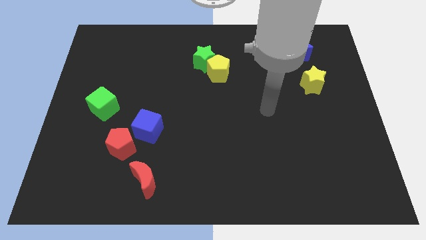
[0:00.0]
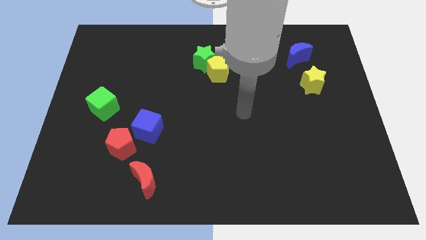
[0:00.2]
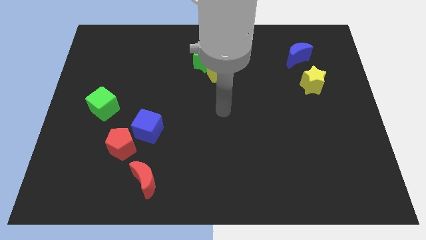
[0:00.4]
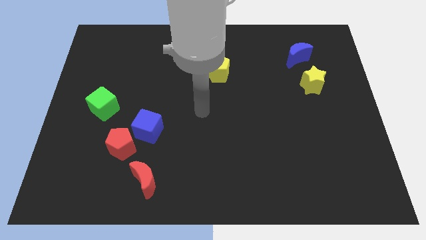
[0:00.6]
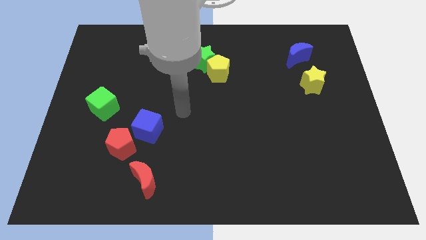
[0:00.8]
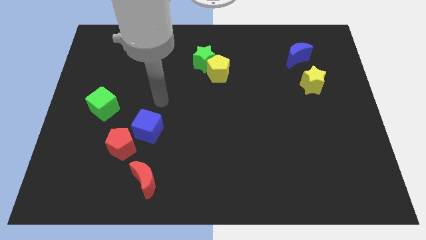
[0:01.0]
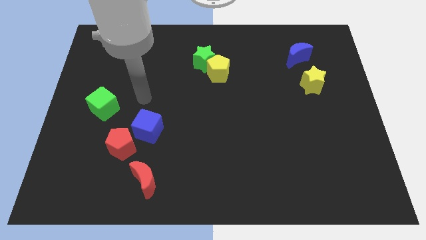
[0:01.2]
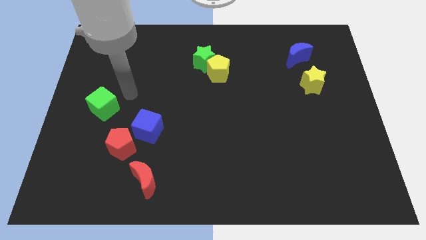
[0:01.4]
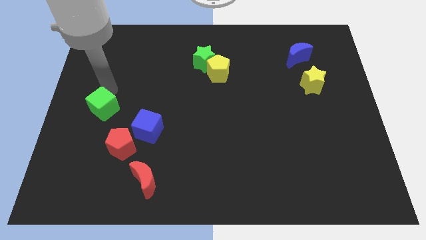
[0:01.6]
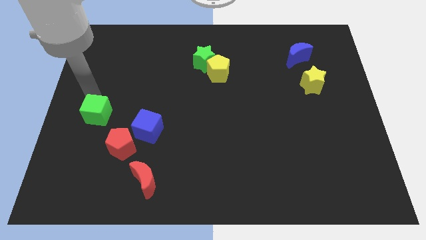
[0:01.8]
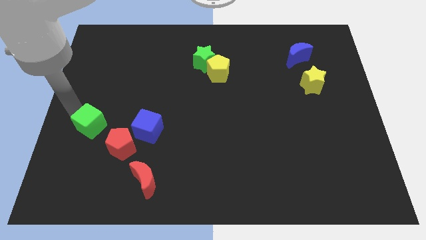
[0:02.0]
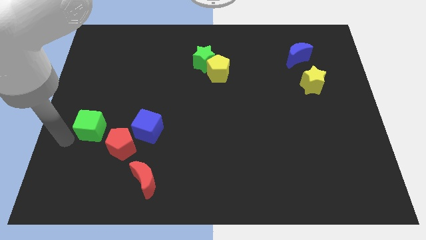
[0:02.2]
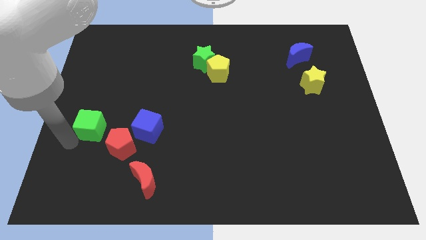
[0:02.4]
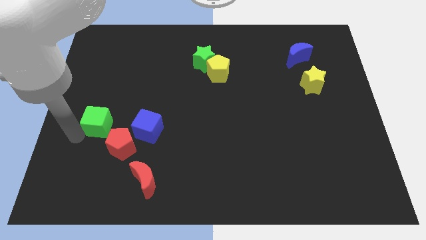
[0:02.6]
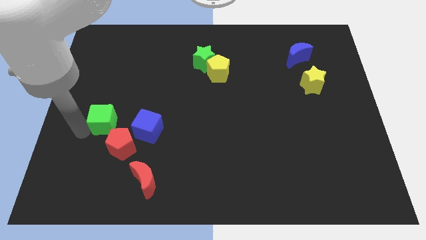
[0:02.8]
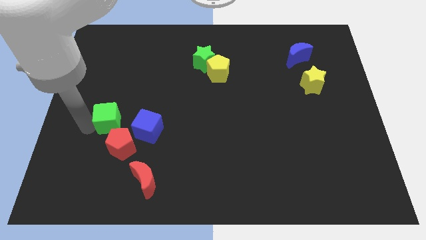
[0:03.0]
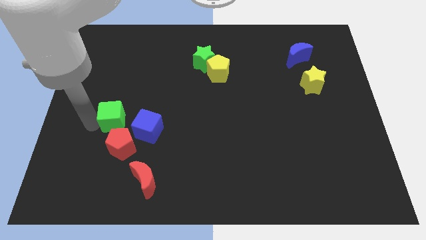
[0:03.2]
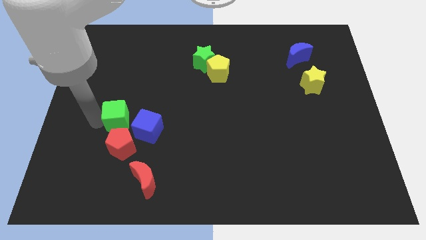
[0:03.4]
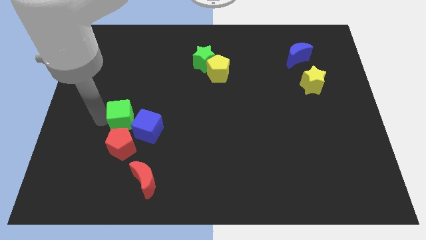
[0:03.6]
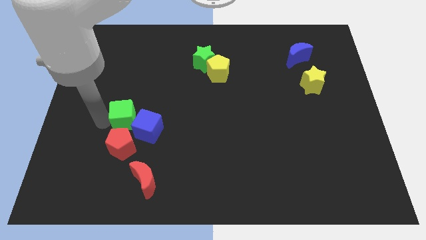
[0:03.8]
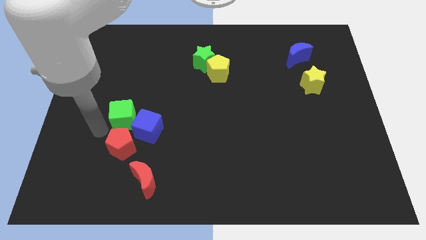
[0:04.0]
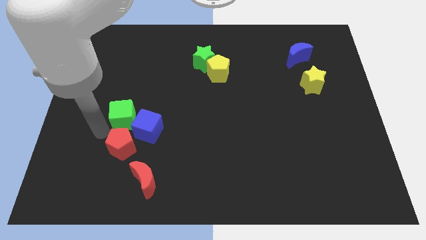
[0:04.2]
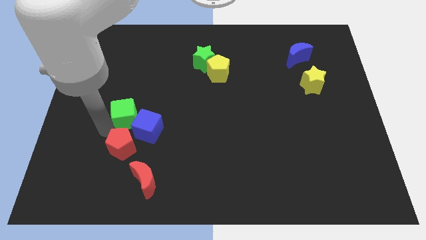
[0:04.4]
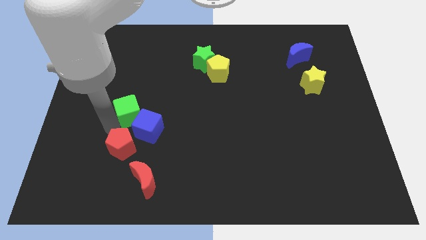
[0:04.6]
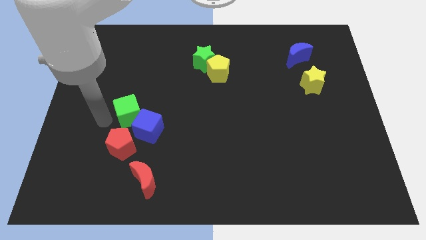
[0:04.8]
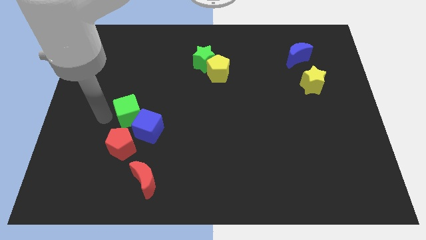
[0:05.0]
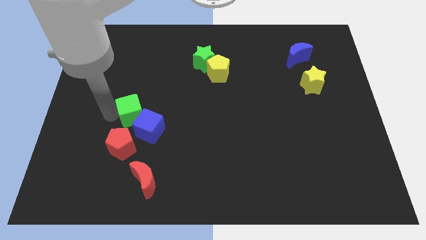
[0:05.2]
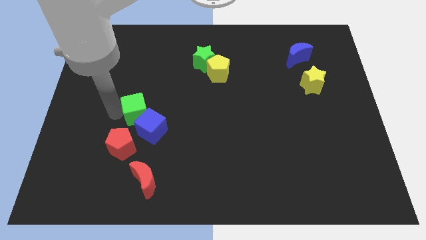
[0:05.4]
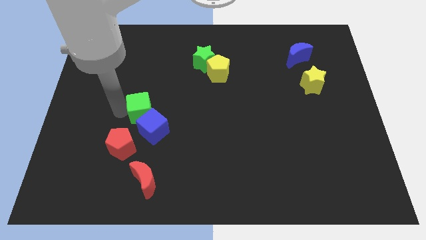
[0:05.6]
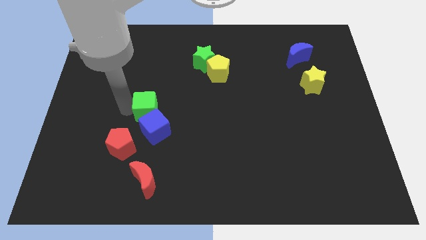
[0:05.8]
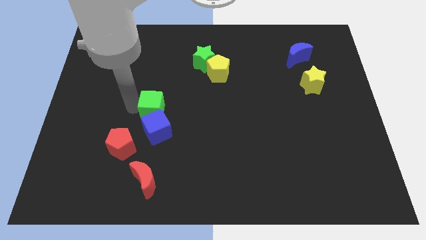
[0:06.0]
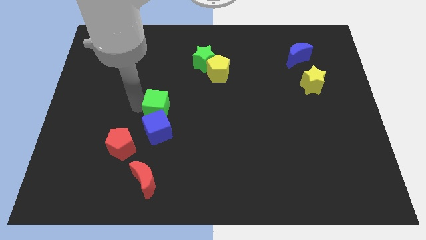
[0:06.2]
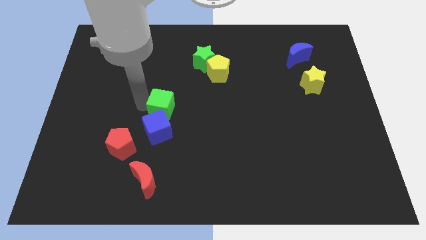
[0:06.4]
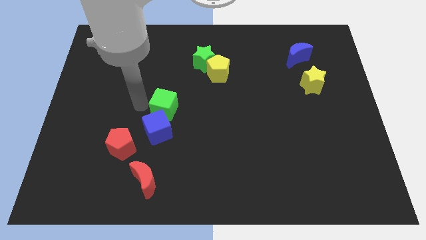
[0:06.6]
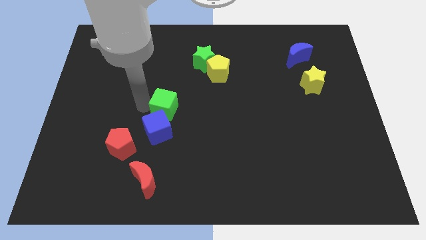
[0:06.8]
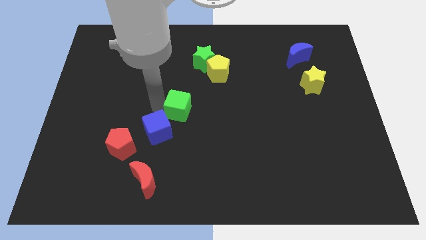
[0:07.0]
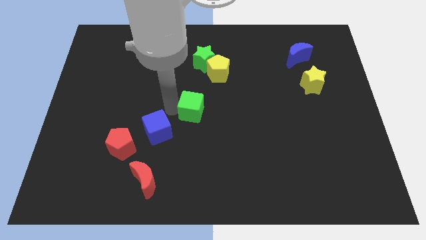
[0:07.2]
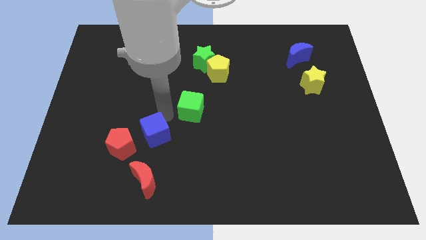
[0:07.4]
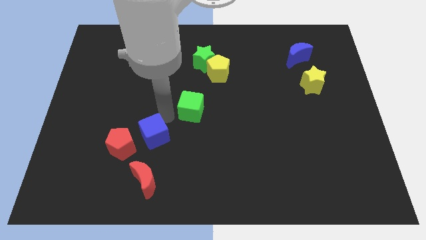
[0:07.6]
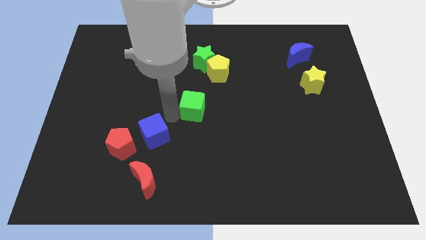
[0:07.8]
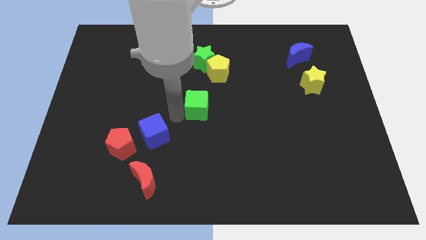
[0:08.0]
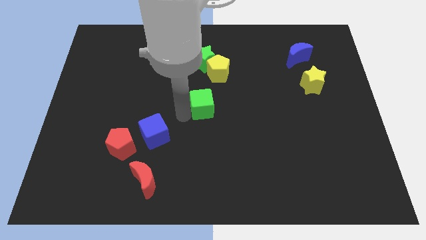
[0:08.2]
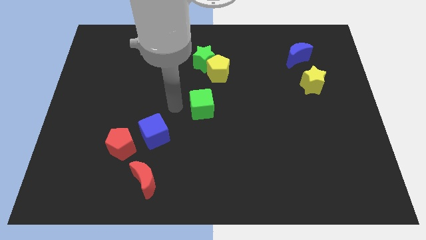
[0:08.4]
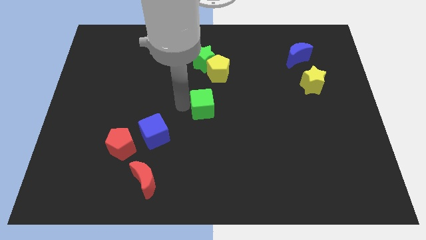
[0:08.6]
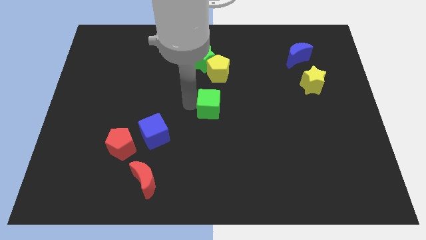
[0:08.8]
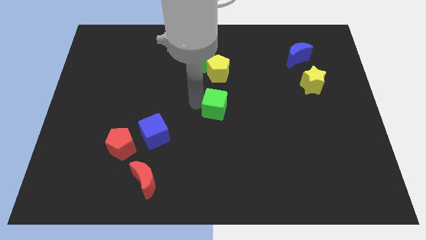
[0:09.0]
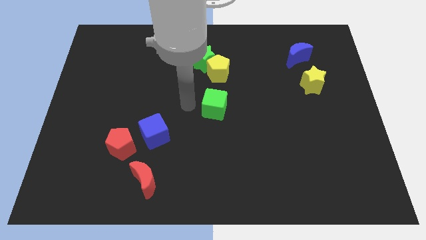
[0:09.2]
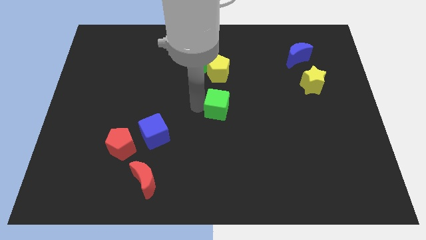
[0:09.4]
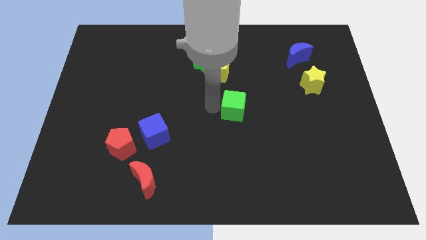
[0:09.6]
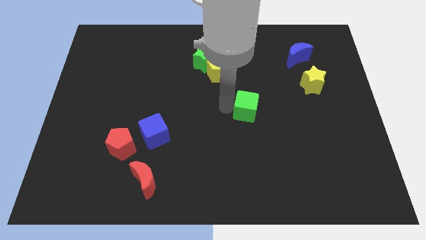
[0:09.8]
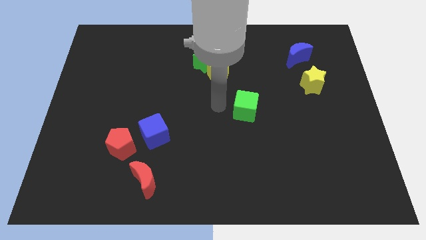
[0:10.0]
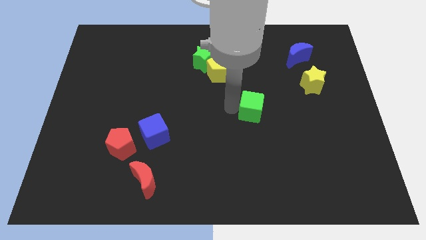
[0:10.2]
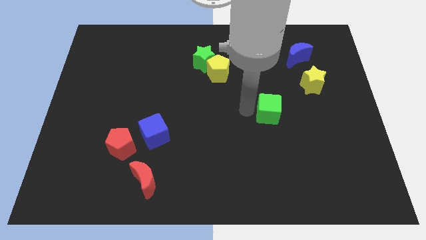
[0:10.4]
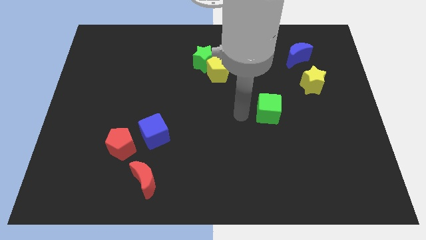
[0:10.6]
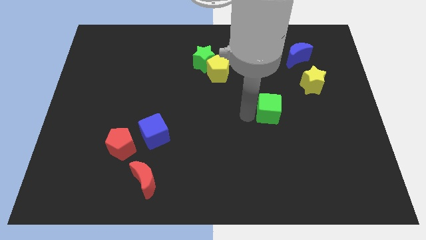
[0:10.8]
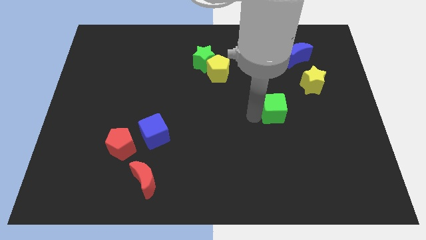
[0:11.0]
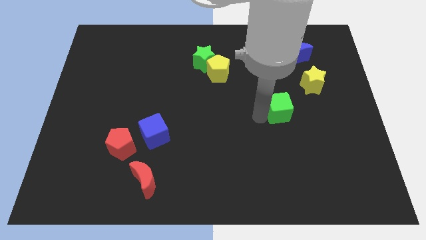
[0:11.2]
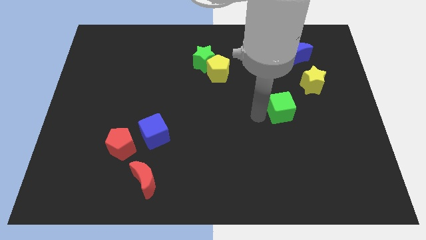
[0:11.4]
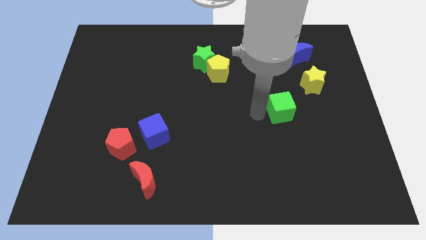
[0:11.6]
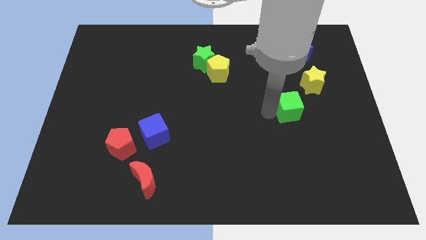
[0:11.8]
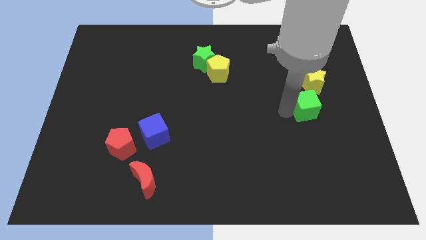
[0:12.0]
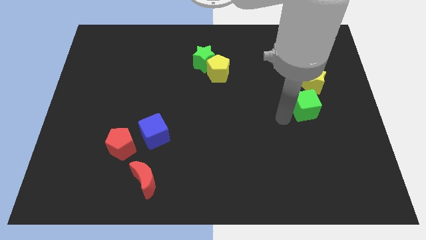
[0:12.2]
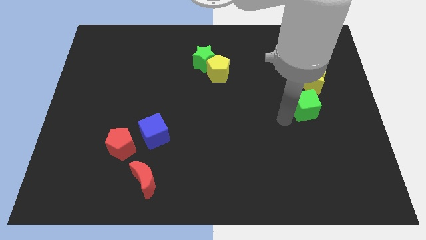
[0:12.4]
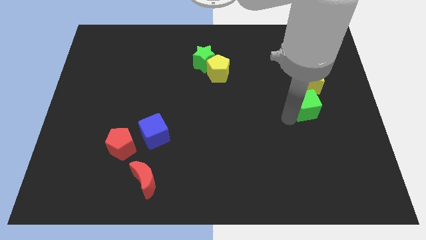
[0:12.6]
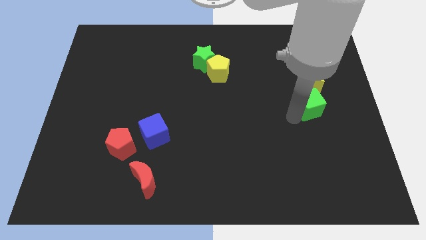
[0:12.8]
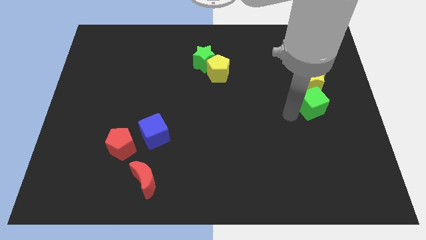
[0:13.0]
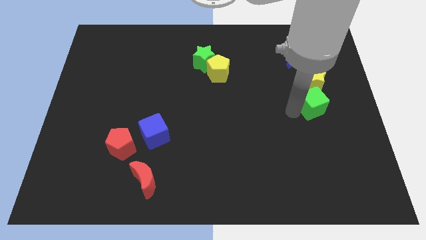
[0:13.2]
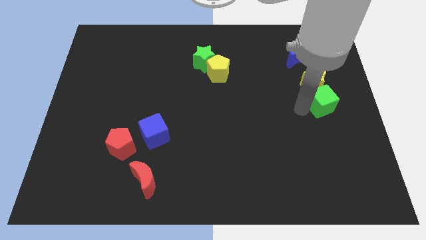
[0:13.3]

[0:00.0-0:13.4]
slide the green cube to the right side

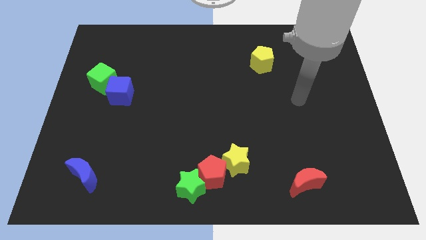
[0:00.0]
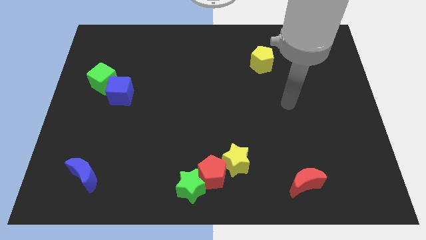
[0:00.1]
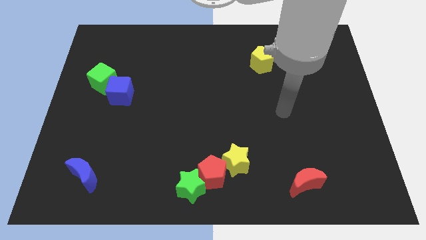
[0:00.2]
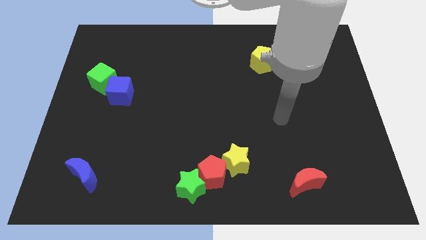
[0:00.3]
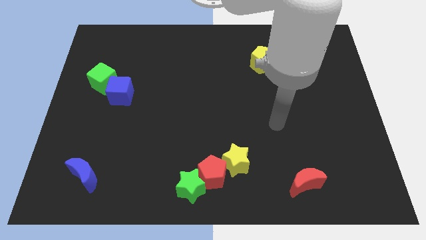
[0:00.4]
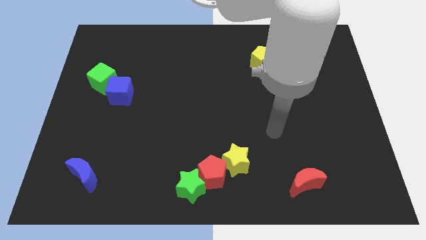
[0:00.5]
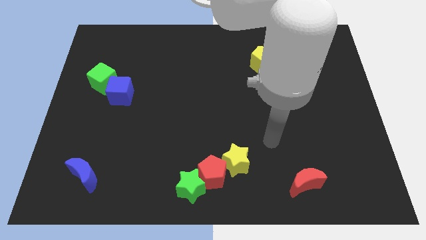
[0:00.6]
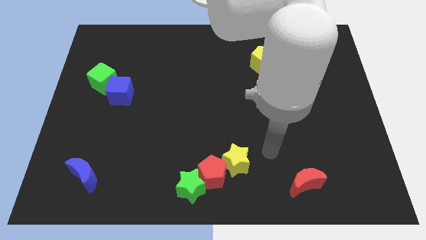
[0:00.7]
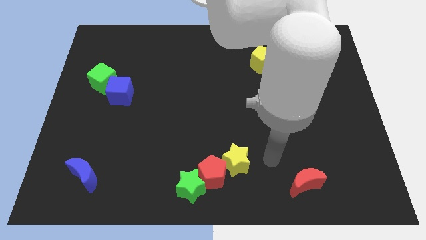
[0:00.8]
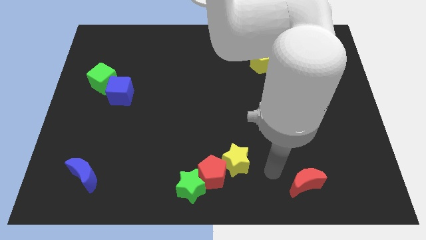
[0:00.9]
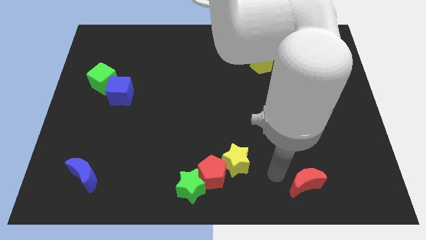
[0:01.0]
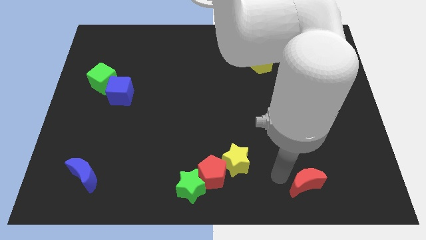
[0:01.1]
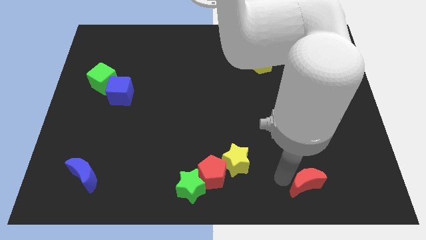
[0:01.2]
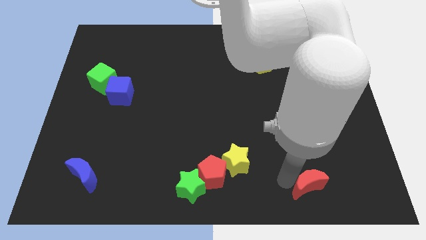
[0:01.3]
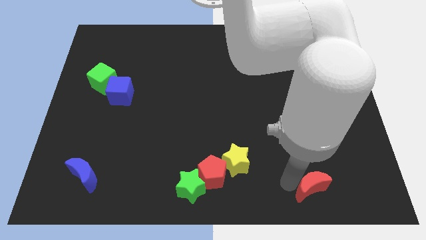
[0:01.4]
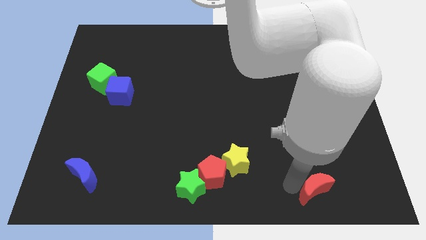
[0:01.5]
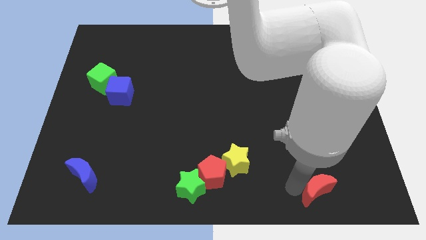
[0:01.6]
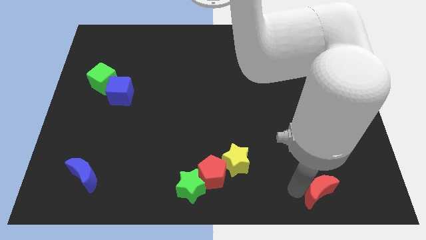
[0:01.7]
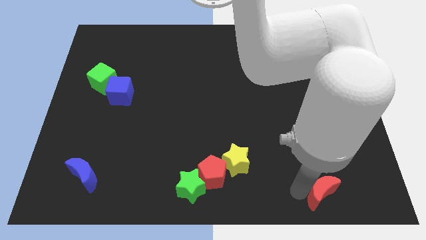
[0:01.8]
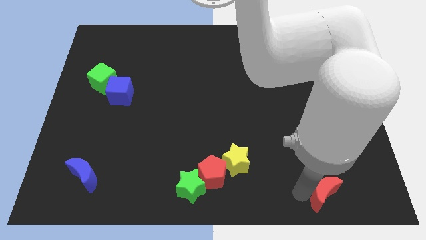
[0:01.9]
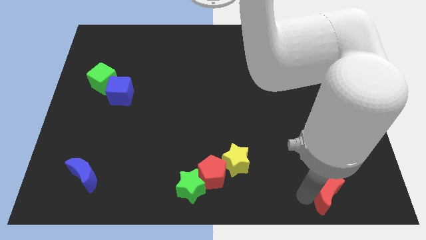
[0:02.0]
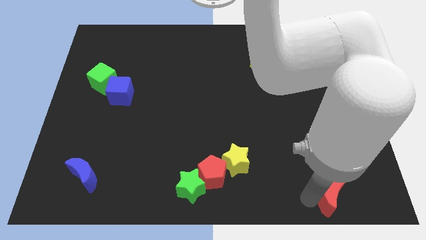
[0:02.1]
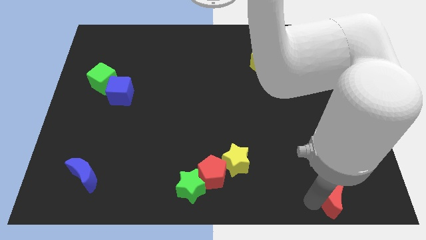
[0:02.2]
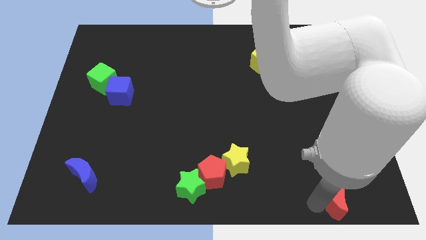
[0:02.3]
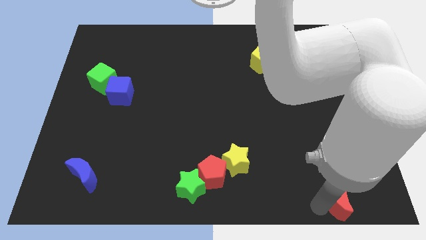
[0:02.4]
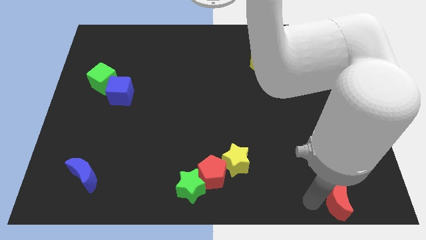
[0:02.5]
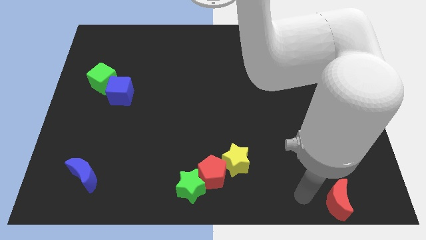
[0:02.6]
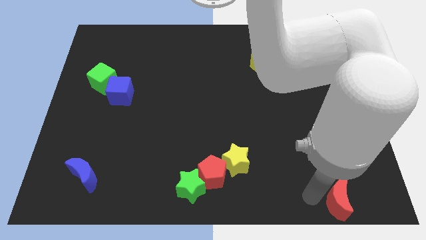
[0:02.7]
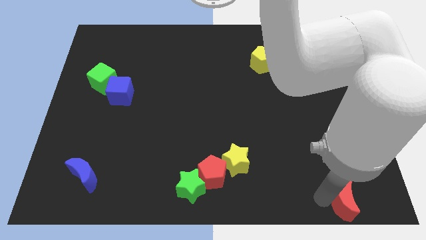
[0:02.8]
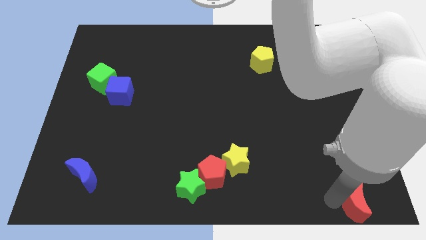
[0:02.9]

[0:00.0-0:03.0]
push the red moon to the bottom right corner
